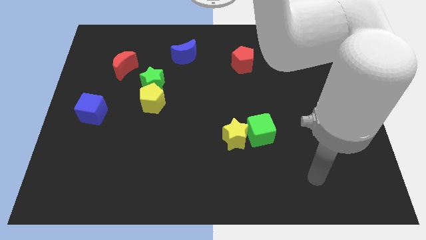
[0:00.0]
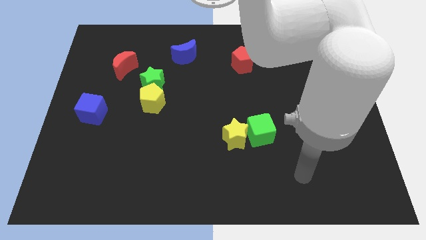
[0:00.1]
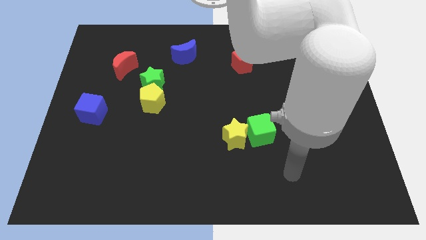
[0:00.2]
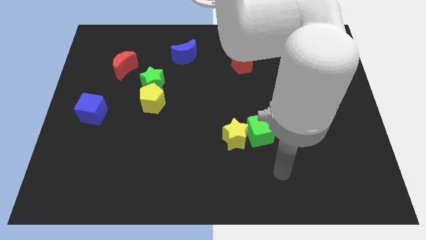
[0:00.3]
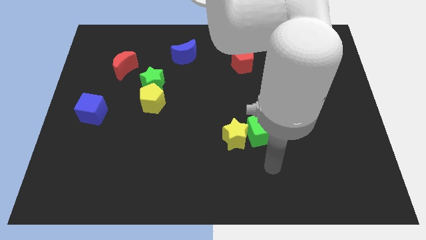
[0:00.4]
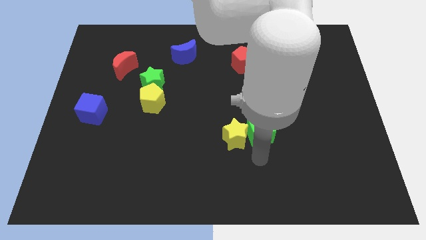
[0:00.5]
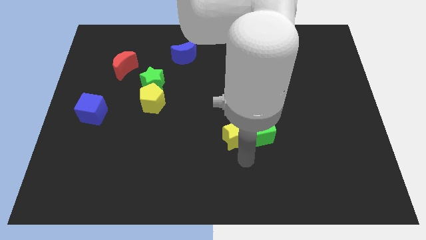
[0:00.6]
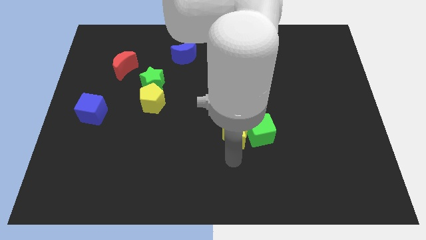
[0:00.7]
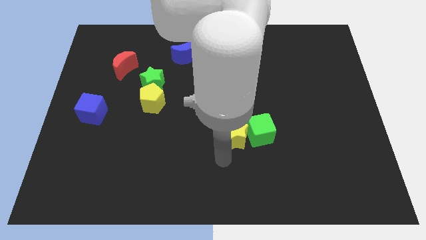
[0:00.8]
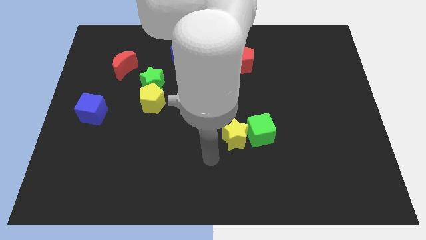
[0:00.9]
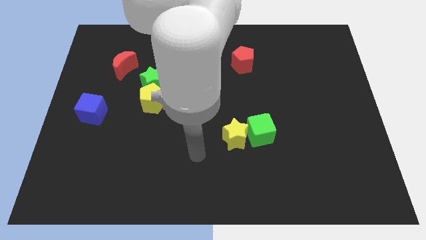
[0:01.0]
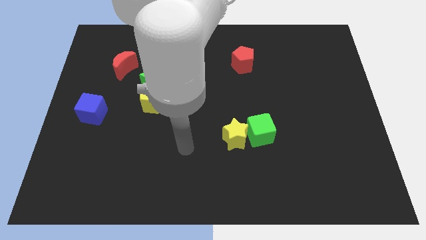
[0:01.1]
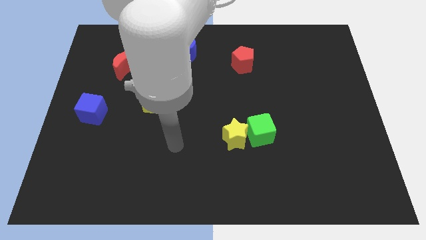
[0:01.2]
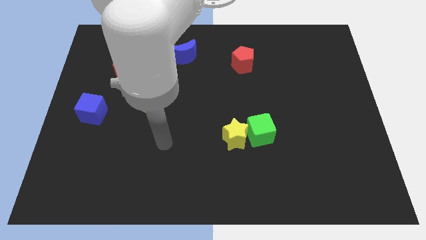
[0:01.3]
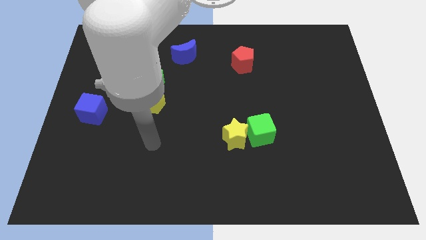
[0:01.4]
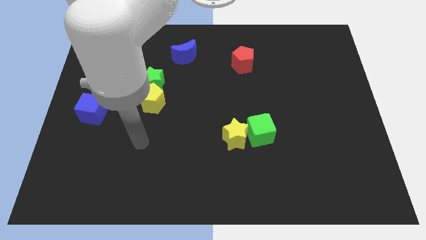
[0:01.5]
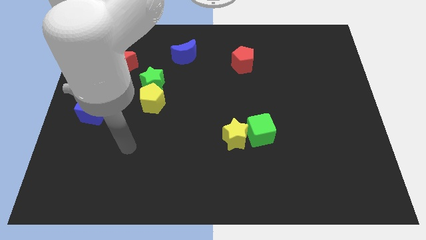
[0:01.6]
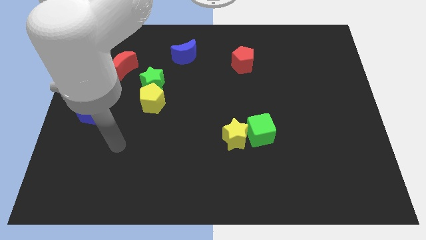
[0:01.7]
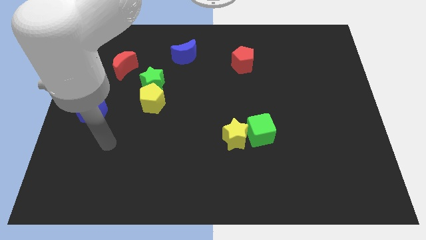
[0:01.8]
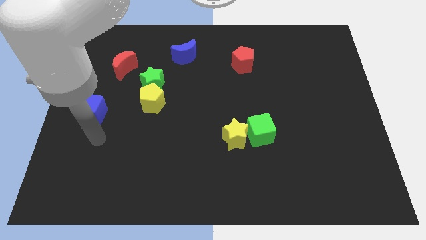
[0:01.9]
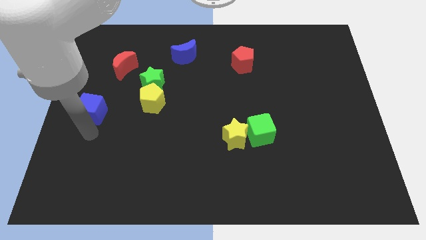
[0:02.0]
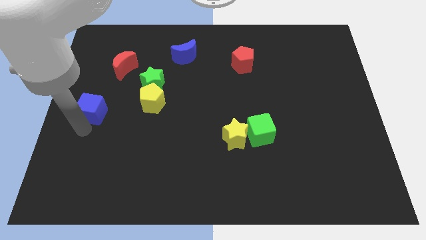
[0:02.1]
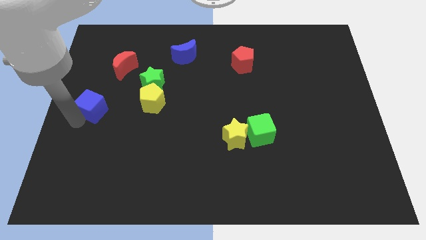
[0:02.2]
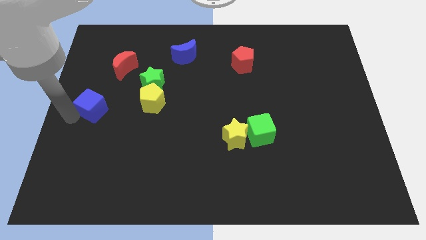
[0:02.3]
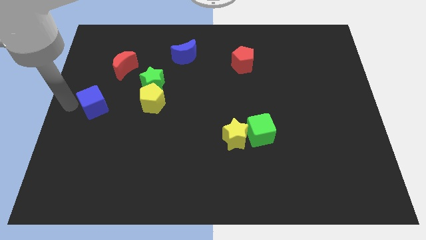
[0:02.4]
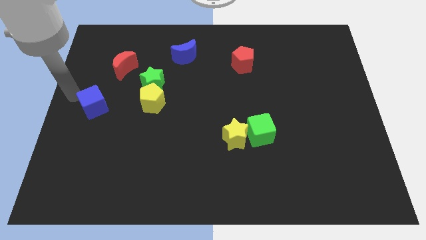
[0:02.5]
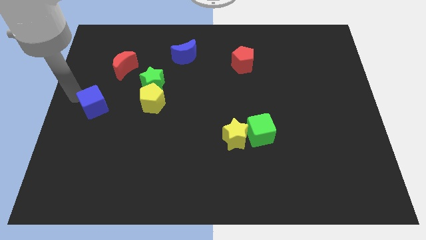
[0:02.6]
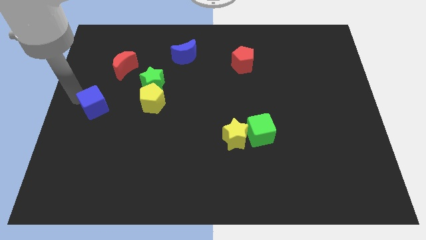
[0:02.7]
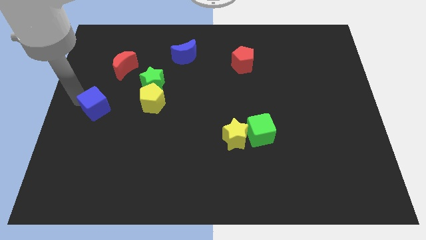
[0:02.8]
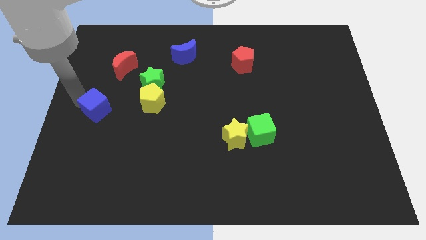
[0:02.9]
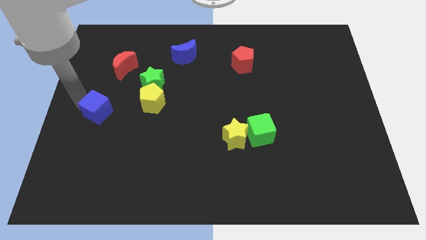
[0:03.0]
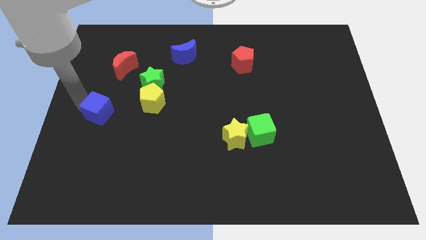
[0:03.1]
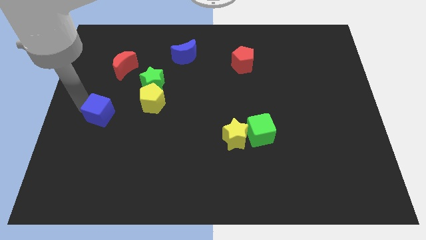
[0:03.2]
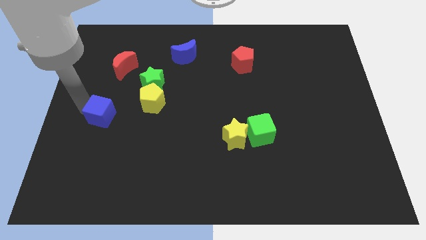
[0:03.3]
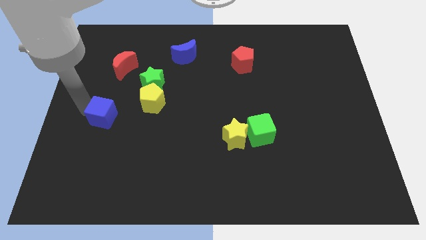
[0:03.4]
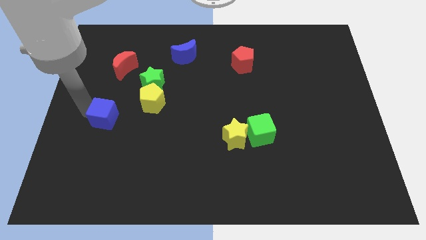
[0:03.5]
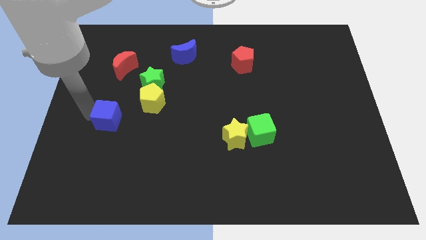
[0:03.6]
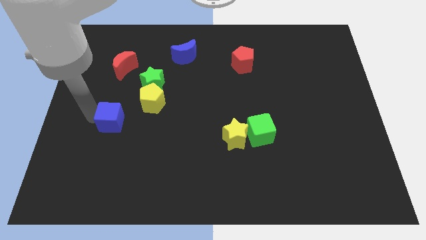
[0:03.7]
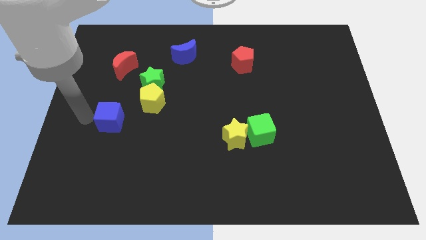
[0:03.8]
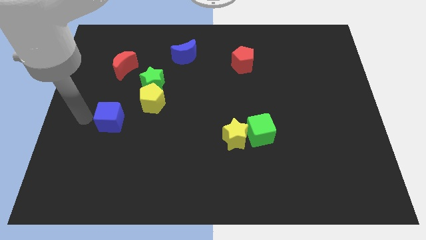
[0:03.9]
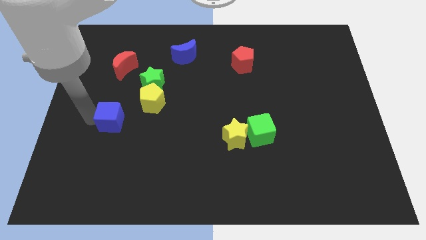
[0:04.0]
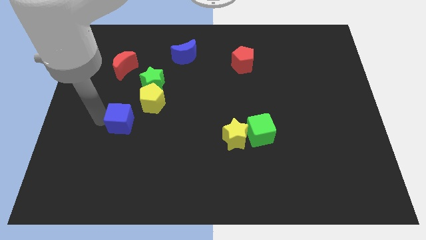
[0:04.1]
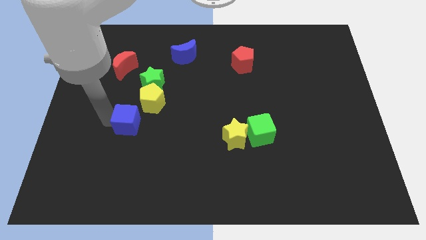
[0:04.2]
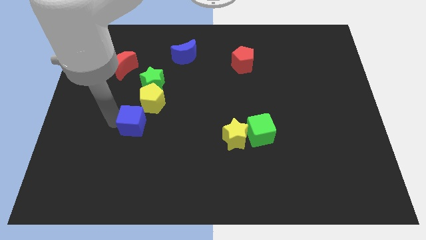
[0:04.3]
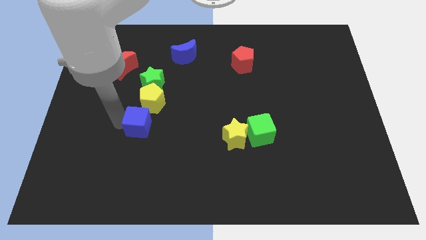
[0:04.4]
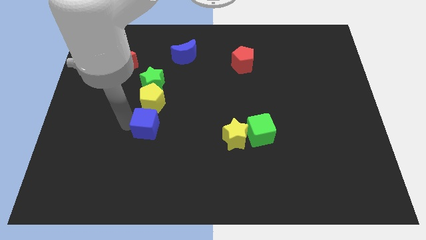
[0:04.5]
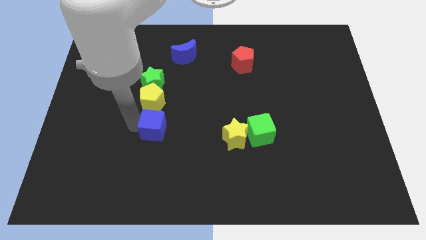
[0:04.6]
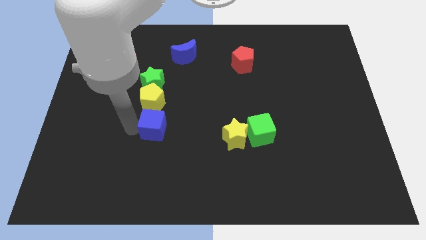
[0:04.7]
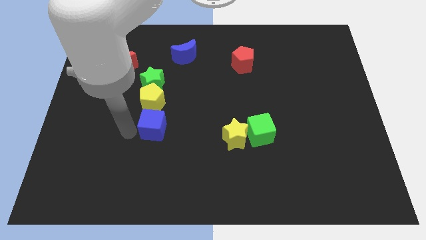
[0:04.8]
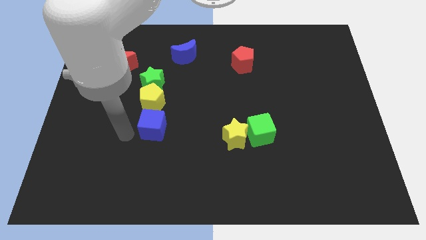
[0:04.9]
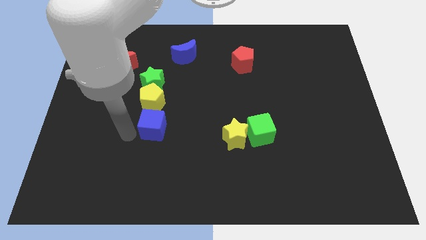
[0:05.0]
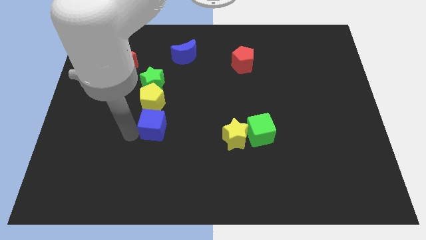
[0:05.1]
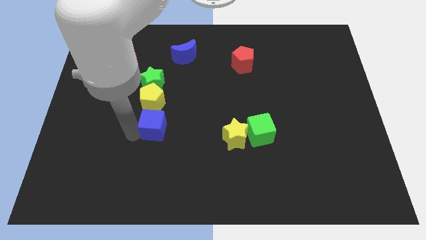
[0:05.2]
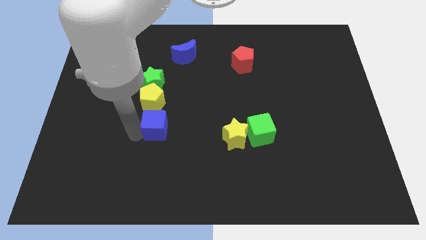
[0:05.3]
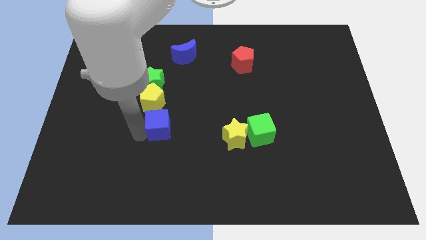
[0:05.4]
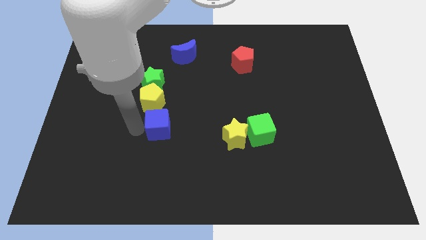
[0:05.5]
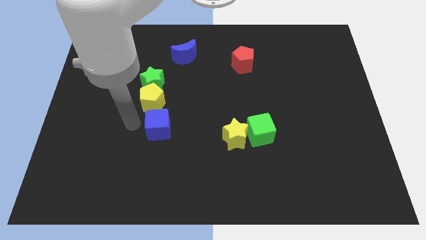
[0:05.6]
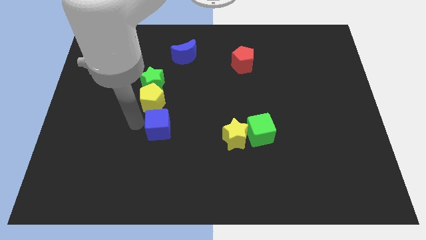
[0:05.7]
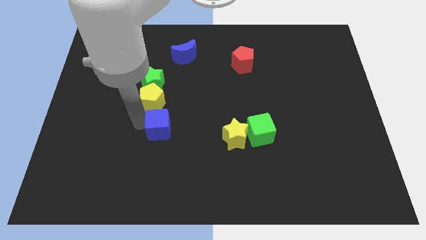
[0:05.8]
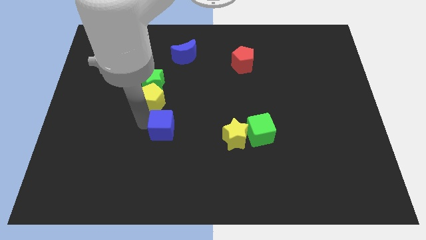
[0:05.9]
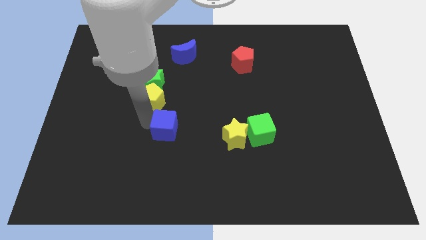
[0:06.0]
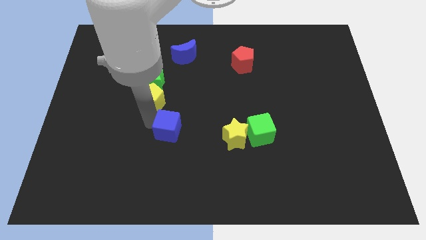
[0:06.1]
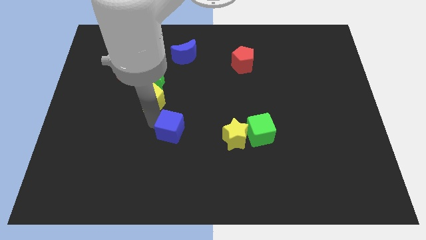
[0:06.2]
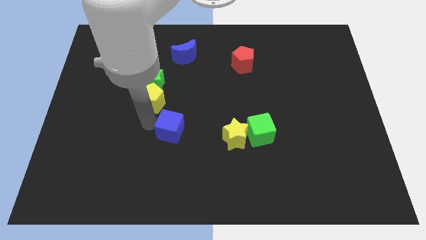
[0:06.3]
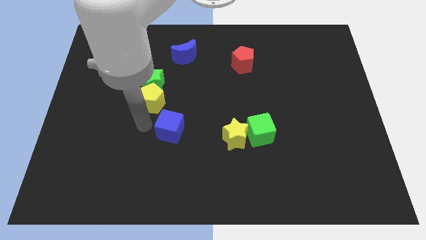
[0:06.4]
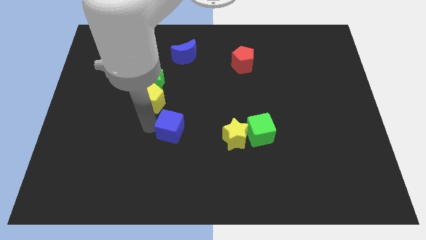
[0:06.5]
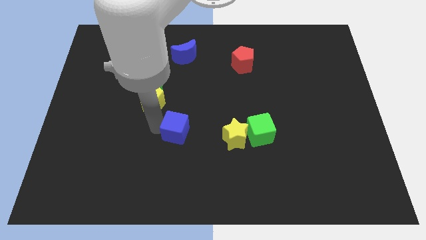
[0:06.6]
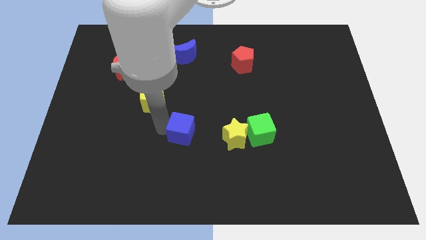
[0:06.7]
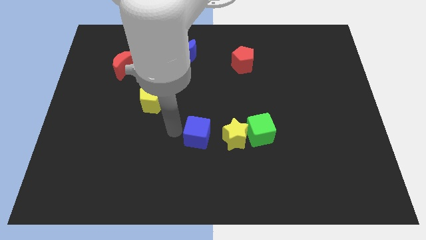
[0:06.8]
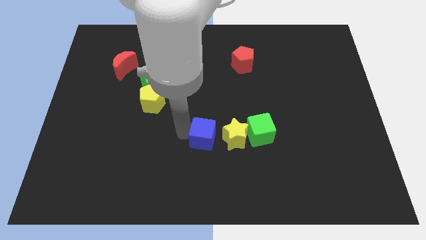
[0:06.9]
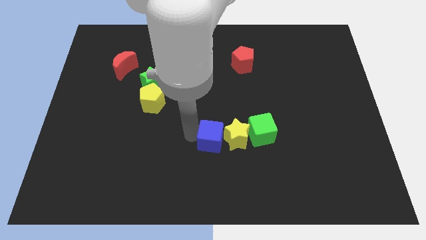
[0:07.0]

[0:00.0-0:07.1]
put the blue cube towards the yellow star
